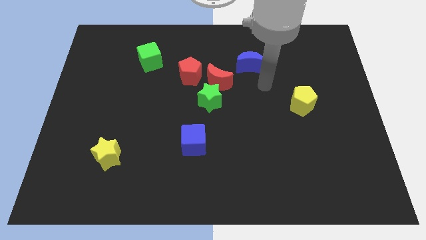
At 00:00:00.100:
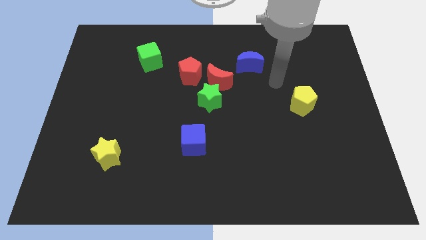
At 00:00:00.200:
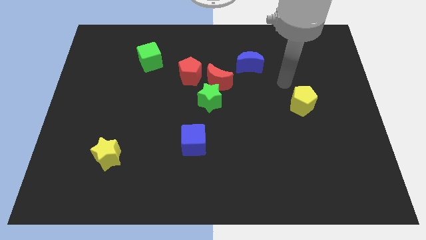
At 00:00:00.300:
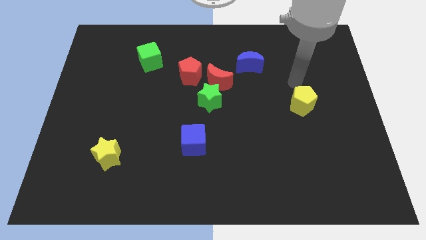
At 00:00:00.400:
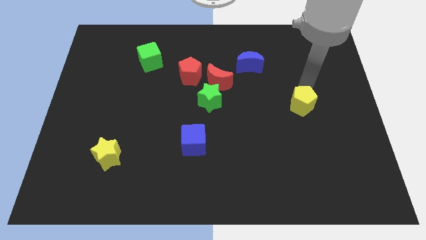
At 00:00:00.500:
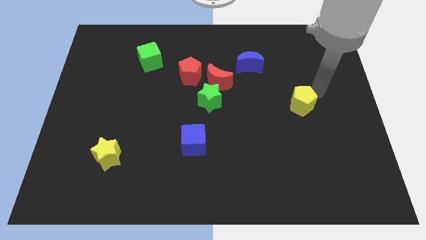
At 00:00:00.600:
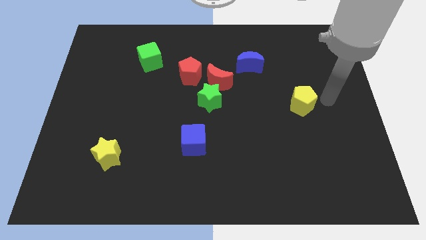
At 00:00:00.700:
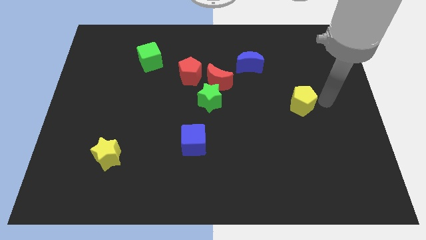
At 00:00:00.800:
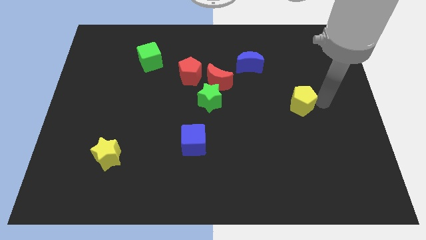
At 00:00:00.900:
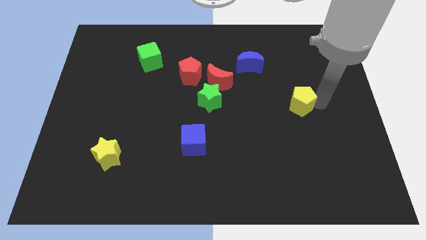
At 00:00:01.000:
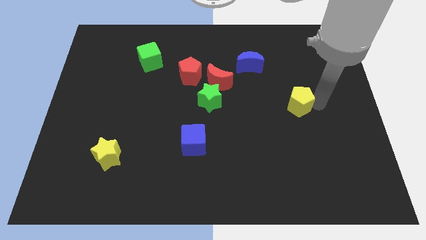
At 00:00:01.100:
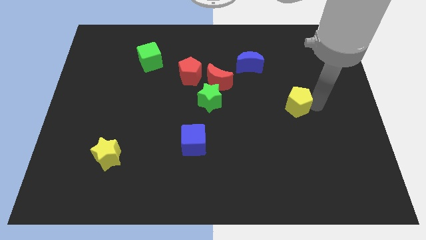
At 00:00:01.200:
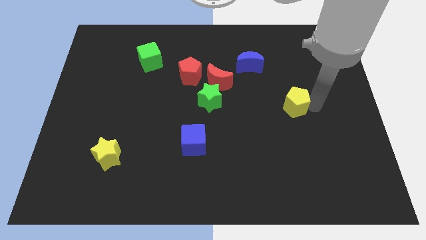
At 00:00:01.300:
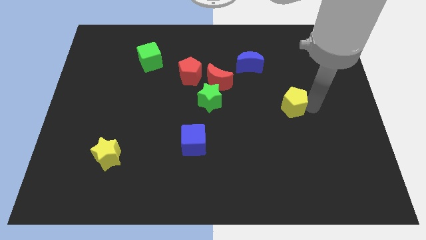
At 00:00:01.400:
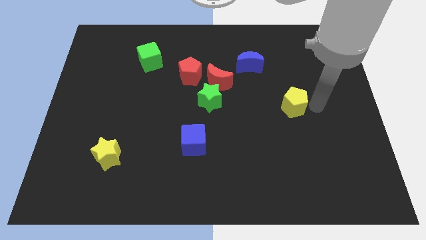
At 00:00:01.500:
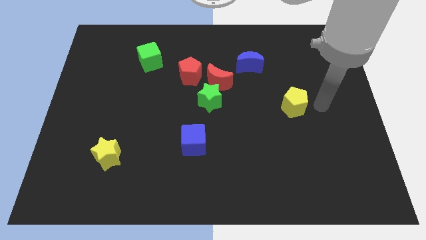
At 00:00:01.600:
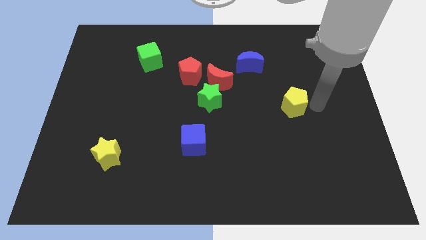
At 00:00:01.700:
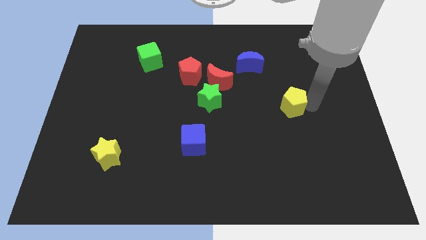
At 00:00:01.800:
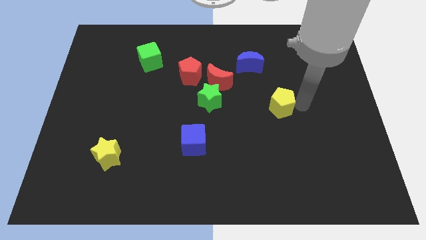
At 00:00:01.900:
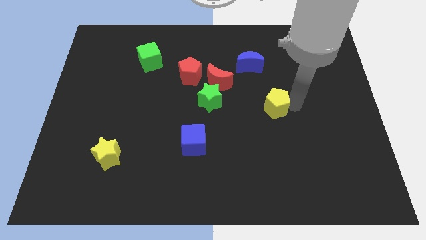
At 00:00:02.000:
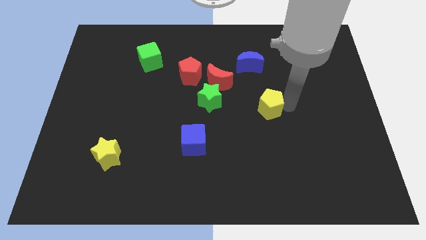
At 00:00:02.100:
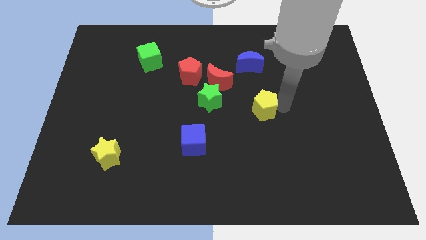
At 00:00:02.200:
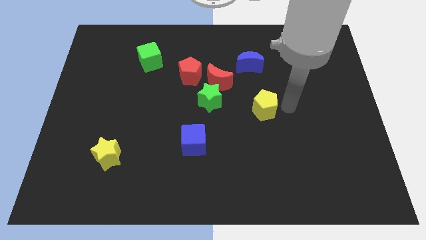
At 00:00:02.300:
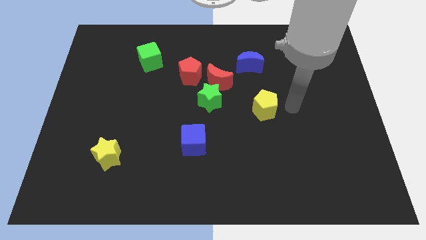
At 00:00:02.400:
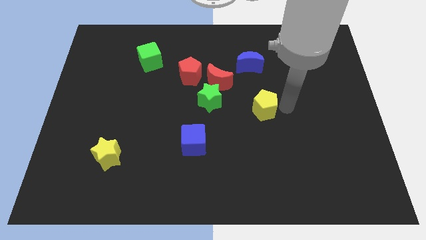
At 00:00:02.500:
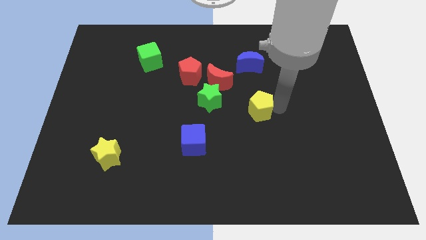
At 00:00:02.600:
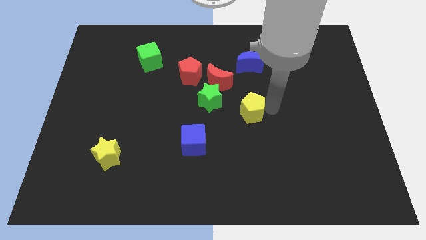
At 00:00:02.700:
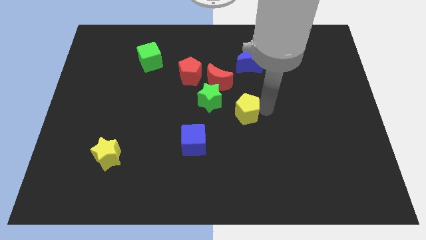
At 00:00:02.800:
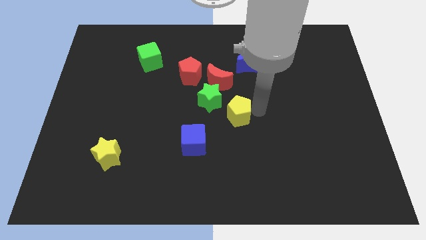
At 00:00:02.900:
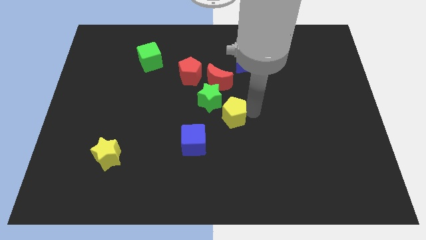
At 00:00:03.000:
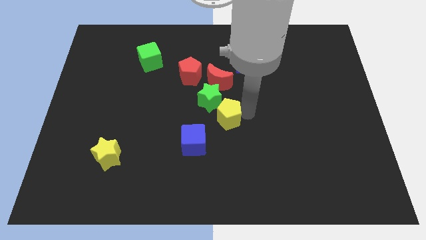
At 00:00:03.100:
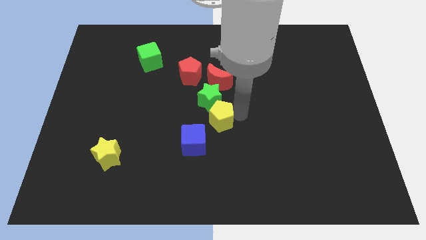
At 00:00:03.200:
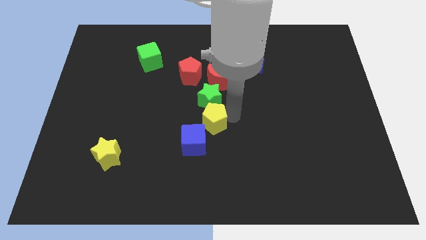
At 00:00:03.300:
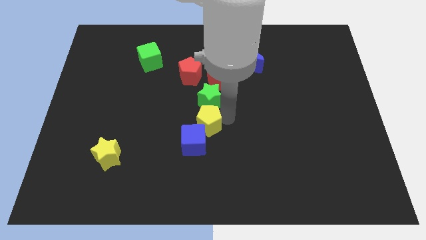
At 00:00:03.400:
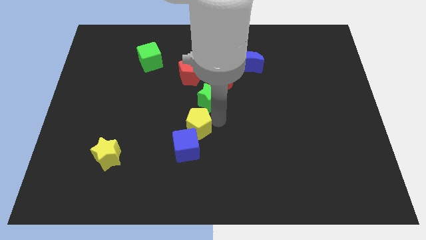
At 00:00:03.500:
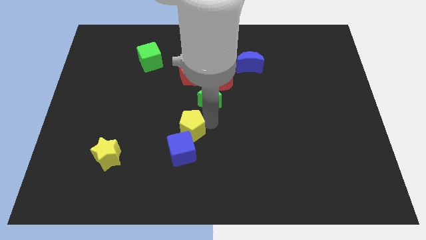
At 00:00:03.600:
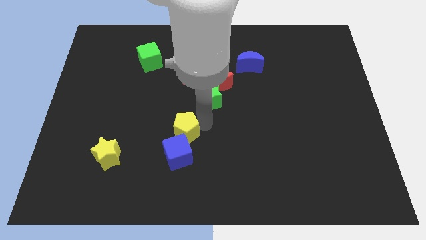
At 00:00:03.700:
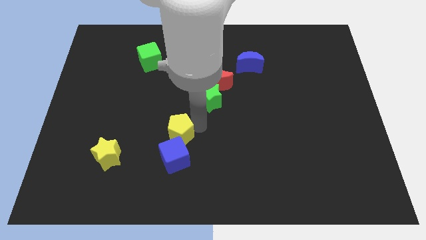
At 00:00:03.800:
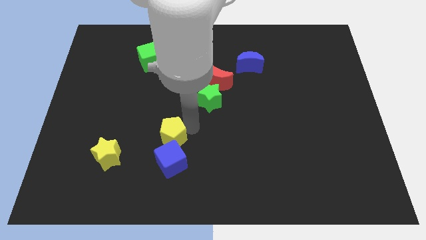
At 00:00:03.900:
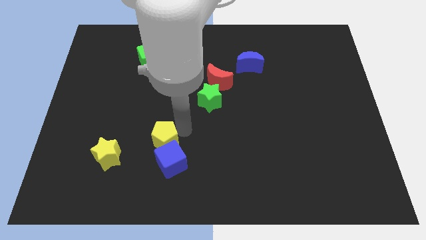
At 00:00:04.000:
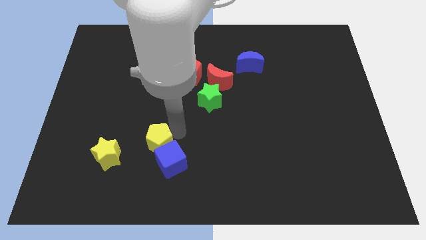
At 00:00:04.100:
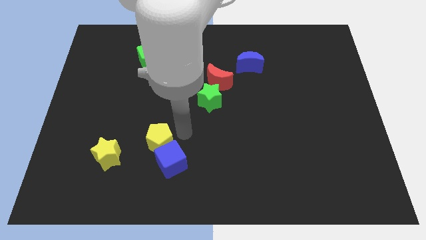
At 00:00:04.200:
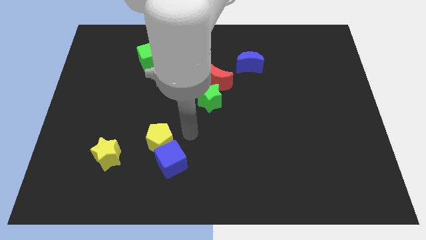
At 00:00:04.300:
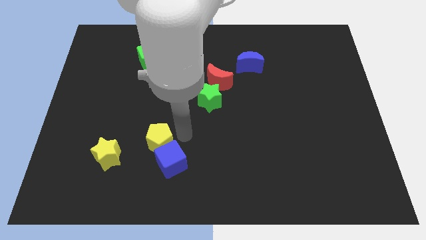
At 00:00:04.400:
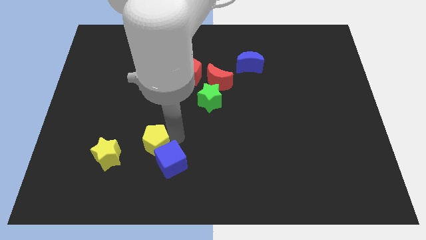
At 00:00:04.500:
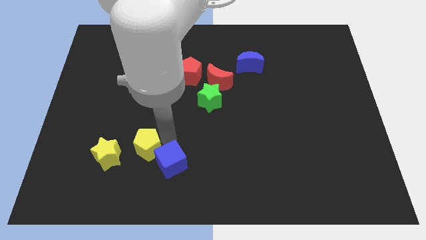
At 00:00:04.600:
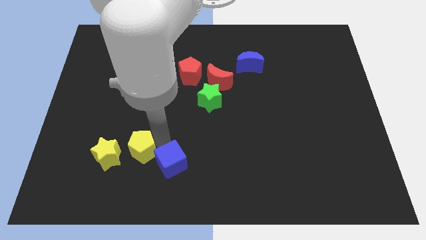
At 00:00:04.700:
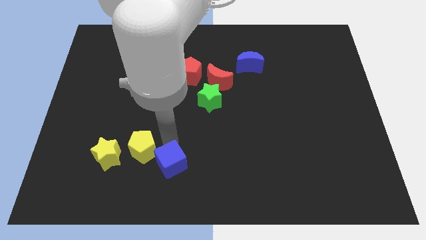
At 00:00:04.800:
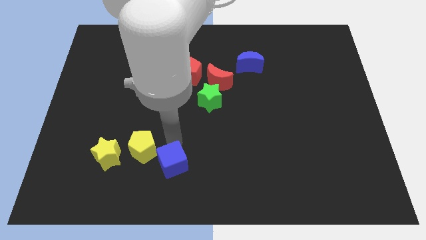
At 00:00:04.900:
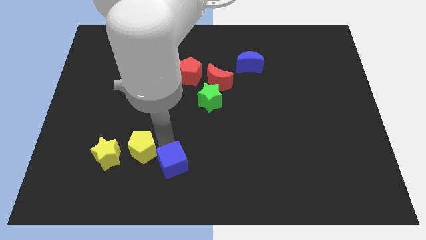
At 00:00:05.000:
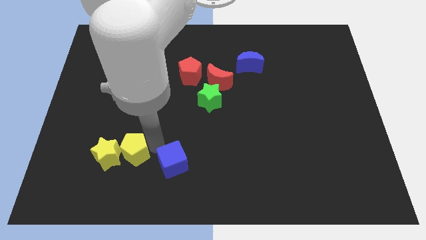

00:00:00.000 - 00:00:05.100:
put the yellow pentagon next to the yellow star

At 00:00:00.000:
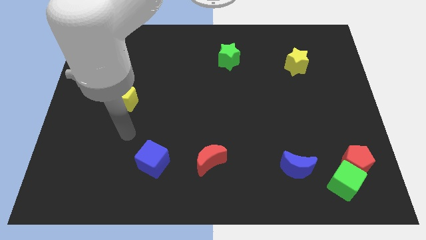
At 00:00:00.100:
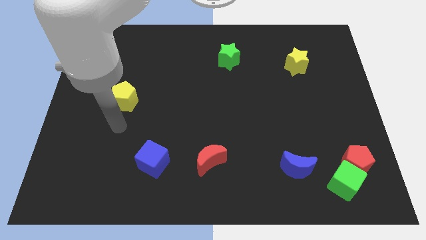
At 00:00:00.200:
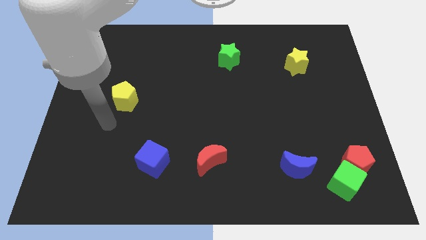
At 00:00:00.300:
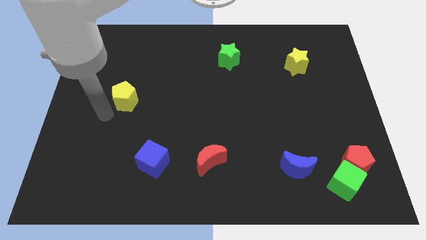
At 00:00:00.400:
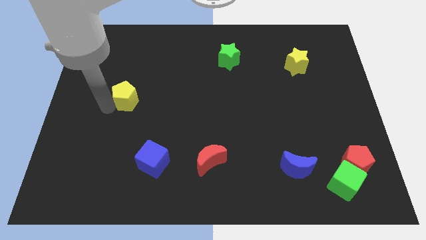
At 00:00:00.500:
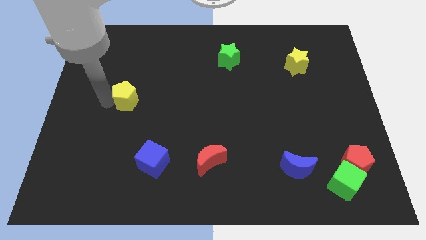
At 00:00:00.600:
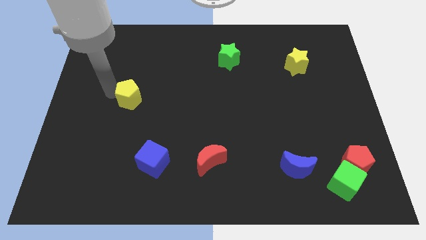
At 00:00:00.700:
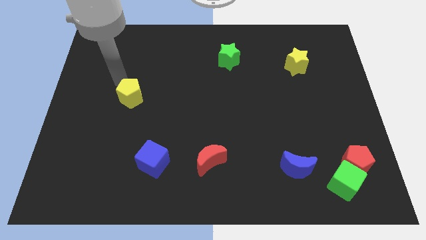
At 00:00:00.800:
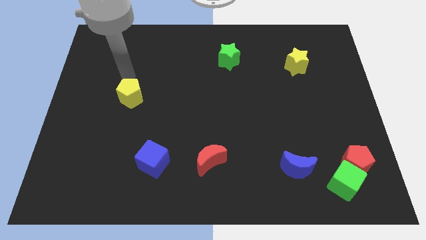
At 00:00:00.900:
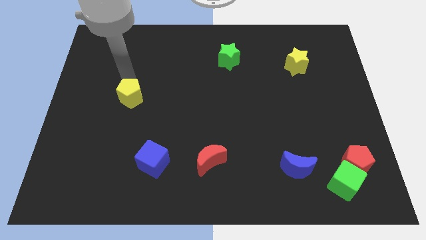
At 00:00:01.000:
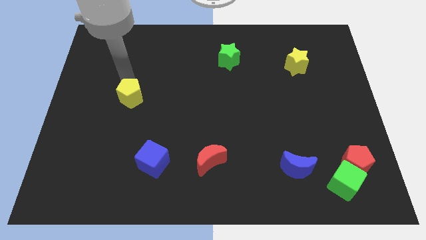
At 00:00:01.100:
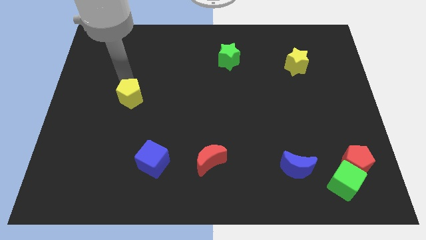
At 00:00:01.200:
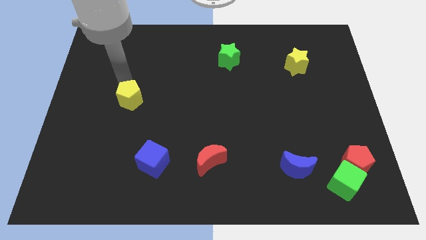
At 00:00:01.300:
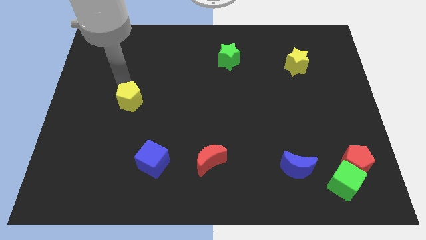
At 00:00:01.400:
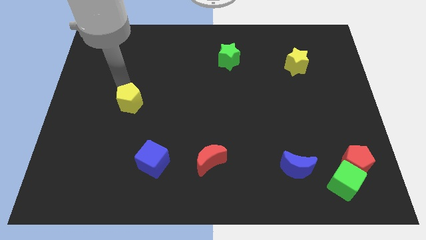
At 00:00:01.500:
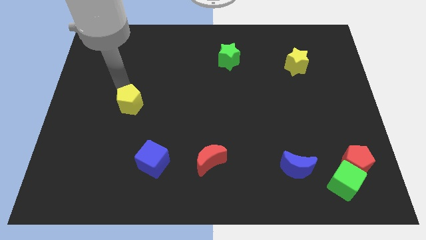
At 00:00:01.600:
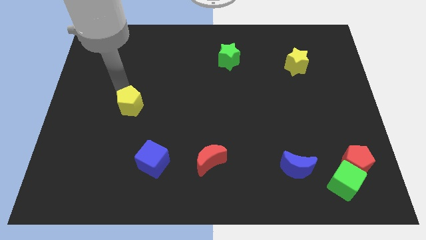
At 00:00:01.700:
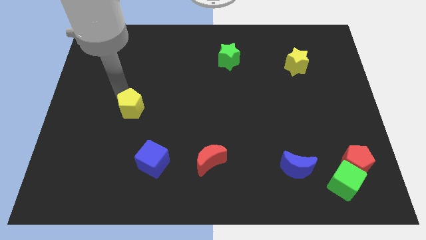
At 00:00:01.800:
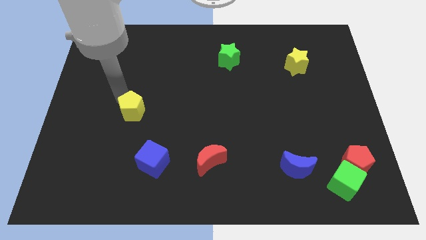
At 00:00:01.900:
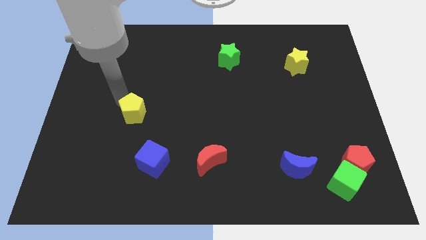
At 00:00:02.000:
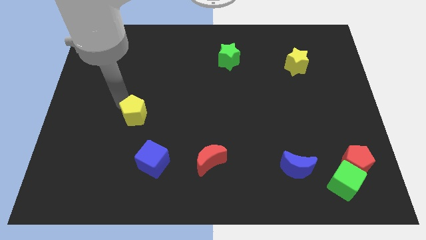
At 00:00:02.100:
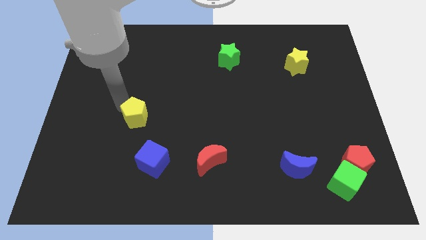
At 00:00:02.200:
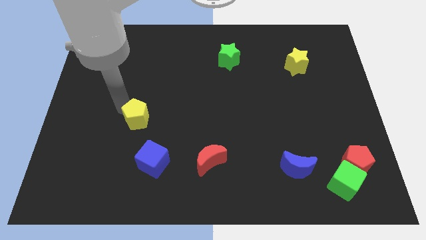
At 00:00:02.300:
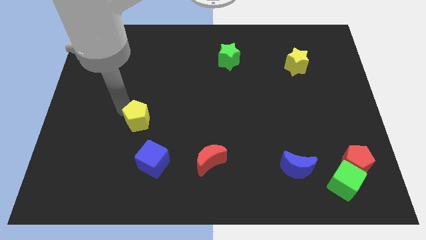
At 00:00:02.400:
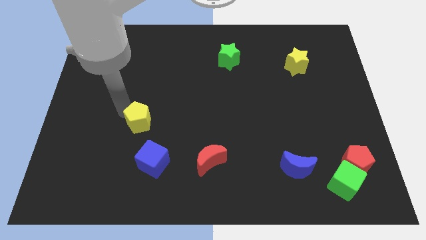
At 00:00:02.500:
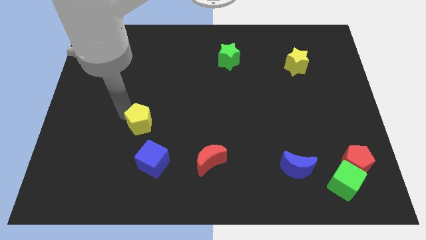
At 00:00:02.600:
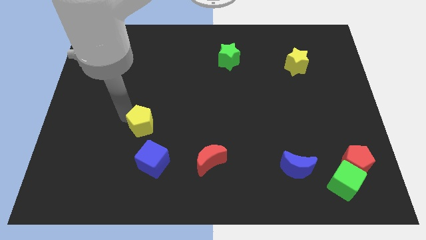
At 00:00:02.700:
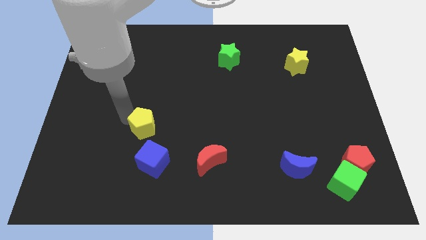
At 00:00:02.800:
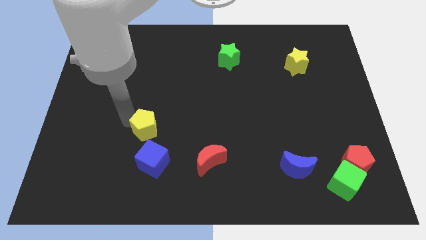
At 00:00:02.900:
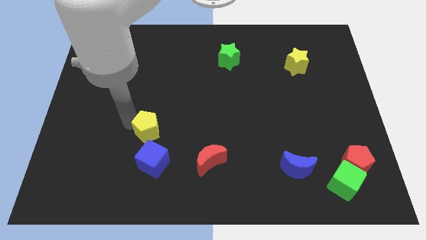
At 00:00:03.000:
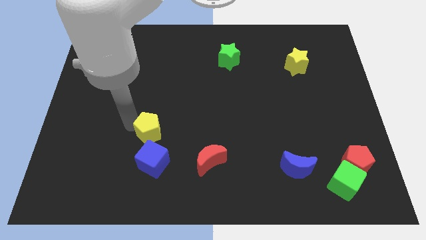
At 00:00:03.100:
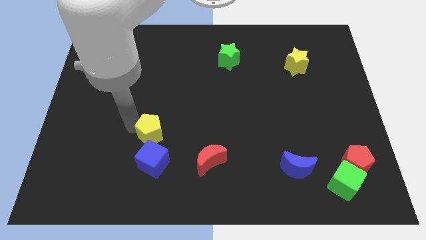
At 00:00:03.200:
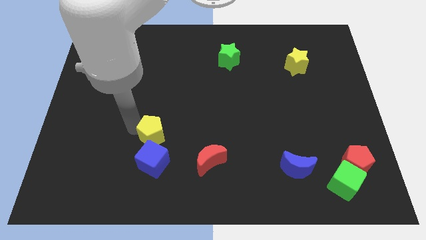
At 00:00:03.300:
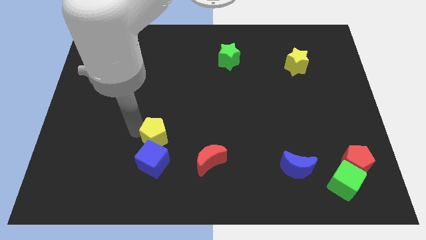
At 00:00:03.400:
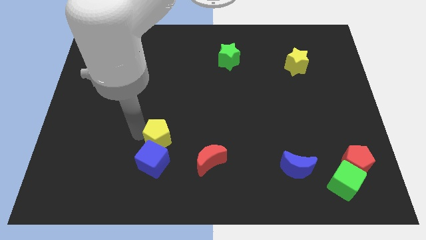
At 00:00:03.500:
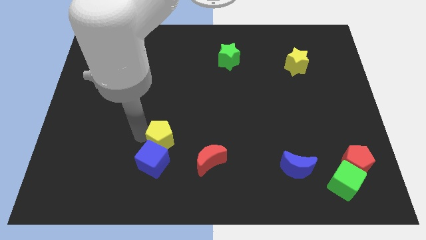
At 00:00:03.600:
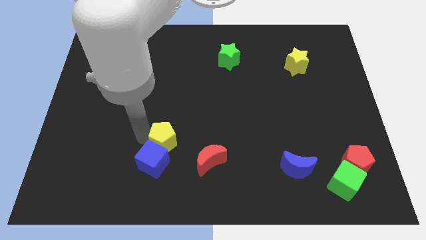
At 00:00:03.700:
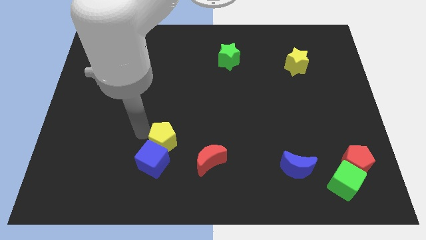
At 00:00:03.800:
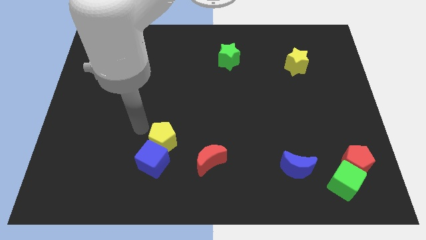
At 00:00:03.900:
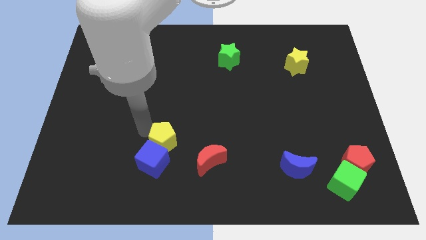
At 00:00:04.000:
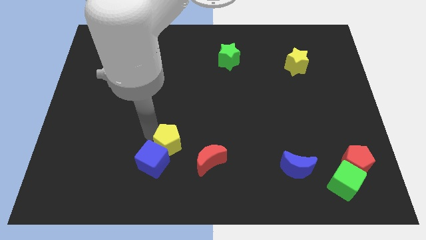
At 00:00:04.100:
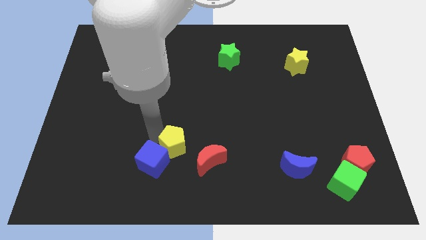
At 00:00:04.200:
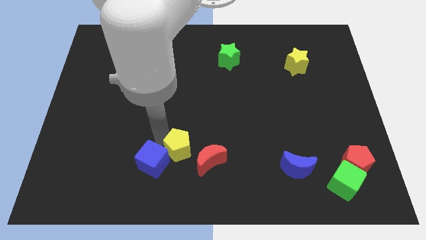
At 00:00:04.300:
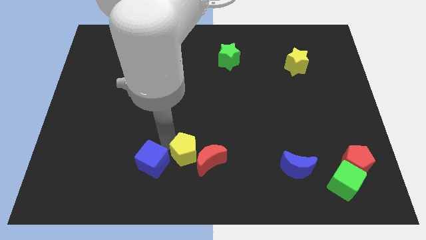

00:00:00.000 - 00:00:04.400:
move the yellow pentagon close to the red moon
